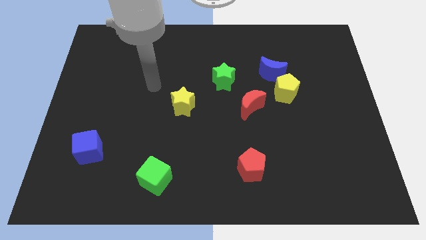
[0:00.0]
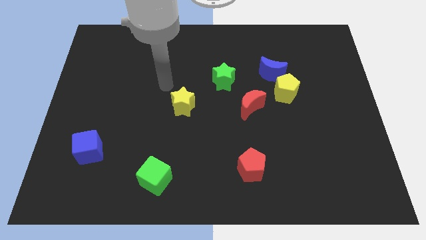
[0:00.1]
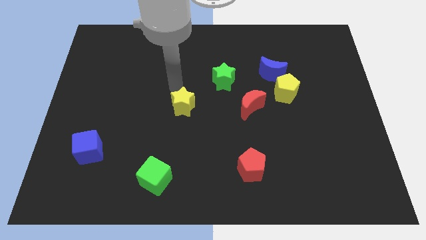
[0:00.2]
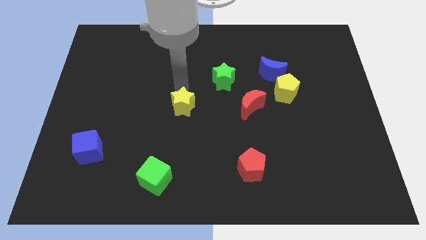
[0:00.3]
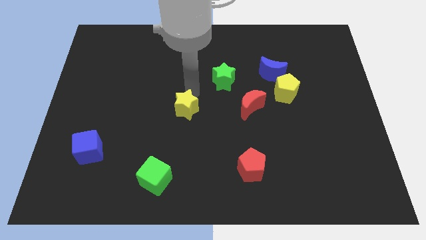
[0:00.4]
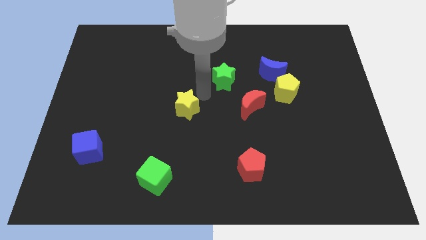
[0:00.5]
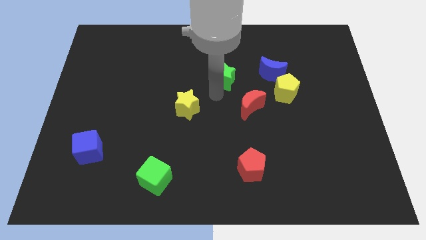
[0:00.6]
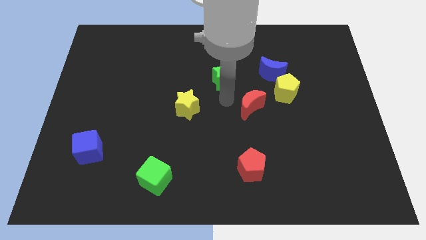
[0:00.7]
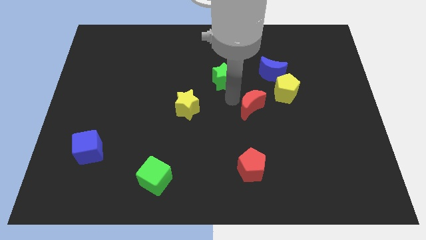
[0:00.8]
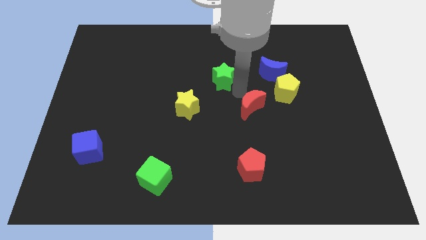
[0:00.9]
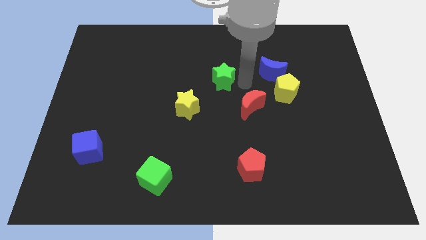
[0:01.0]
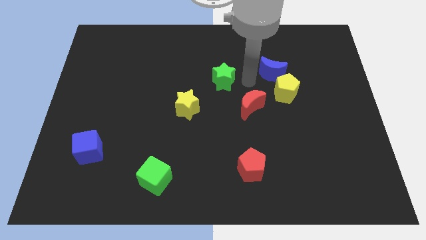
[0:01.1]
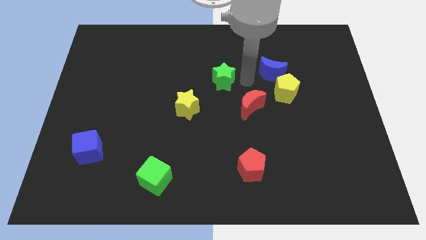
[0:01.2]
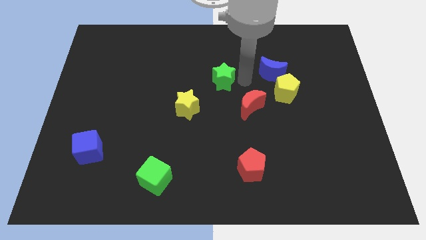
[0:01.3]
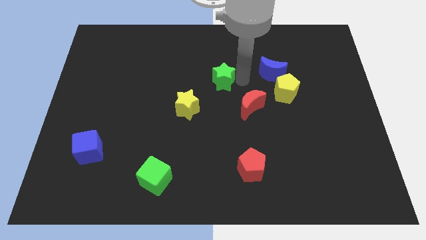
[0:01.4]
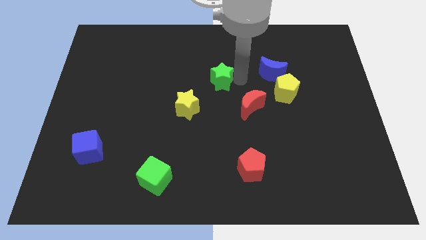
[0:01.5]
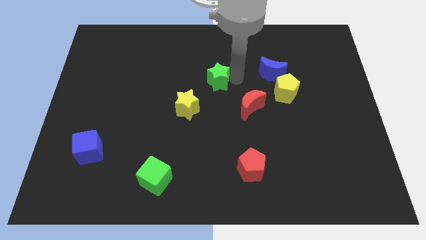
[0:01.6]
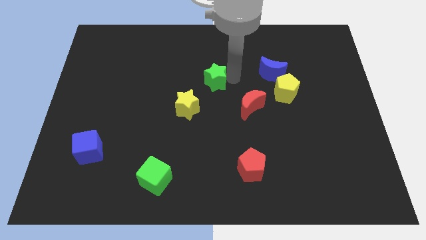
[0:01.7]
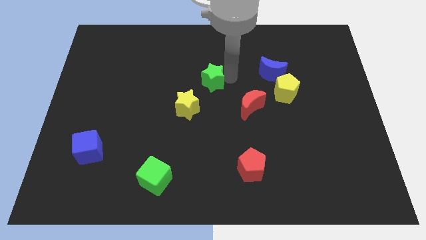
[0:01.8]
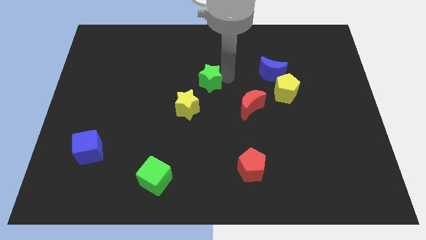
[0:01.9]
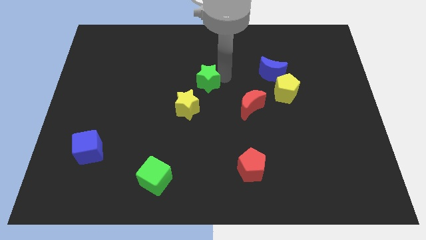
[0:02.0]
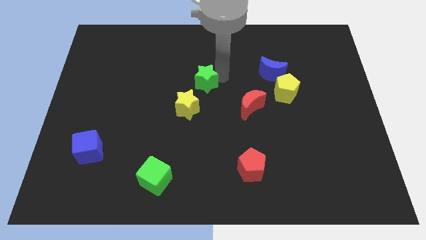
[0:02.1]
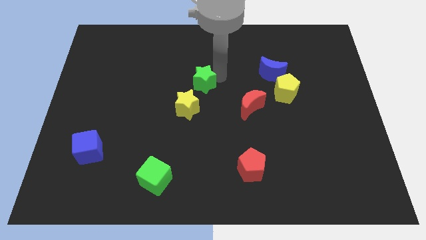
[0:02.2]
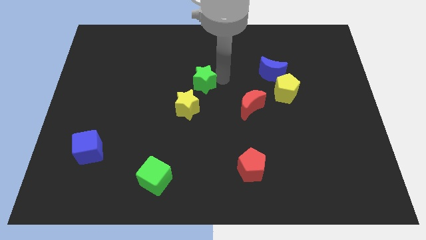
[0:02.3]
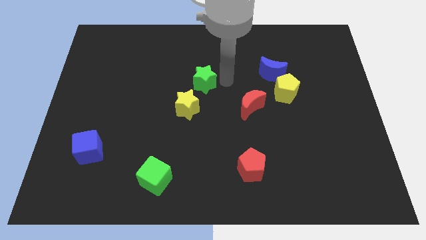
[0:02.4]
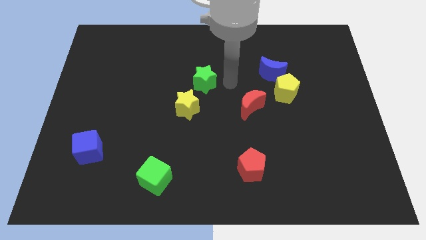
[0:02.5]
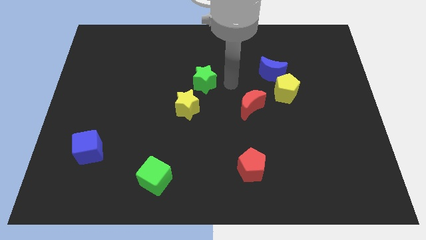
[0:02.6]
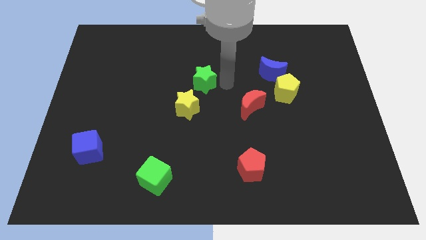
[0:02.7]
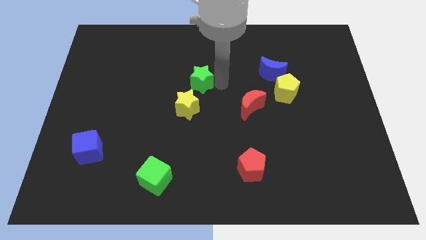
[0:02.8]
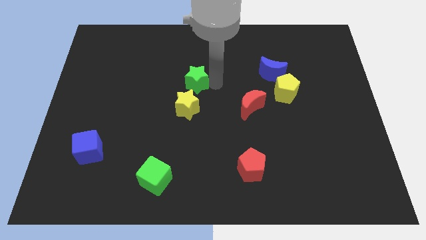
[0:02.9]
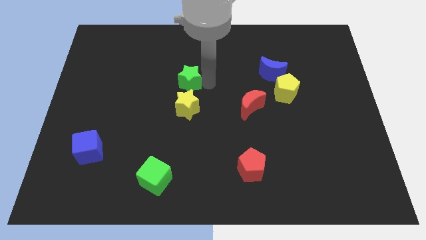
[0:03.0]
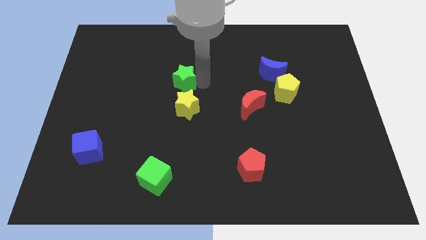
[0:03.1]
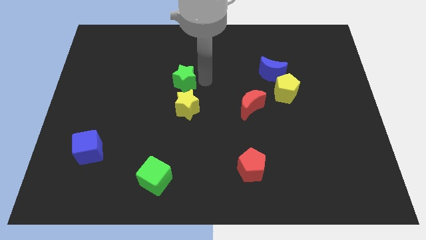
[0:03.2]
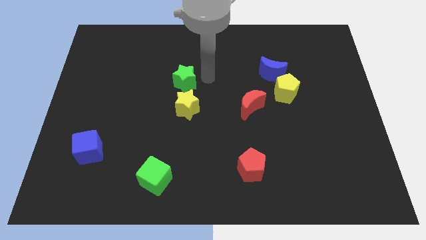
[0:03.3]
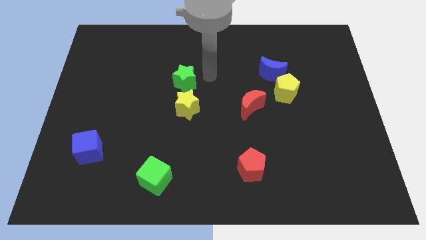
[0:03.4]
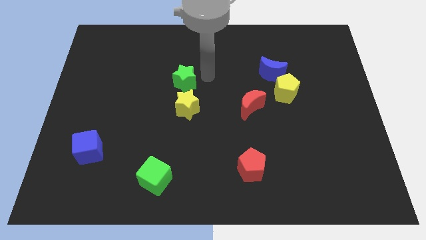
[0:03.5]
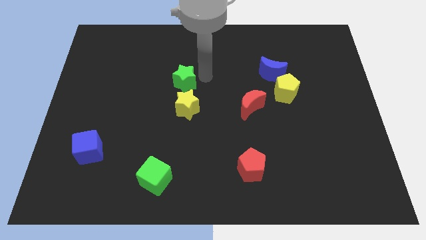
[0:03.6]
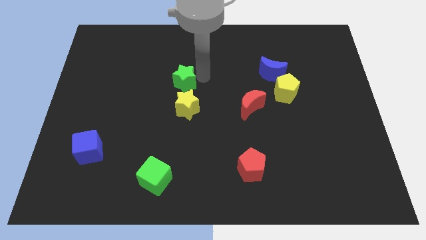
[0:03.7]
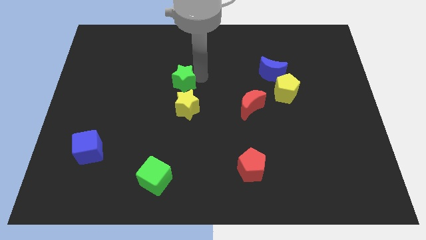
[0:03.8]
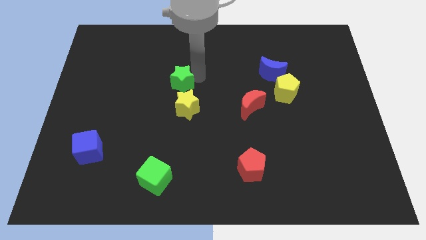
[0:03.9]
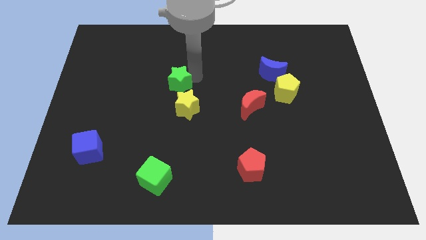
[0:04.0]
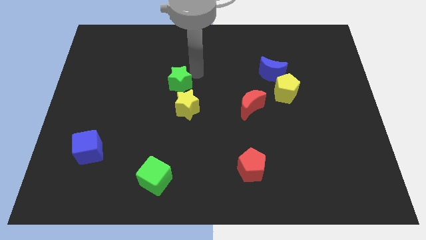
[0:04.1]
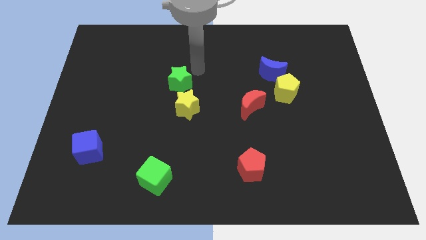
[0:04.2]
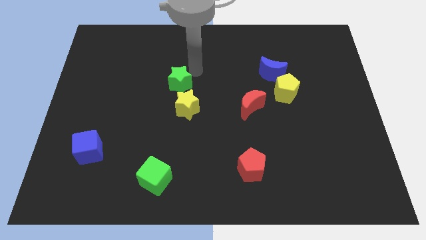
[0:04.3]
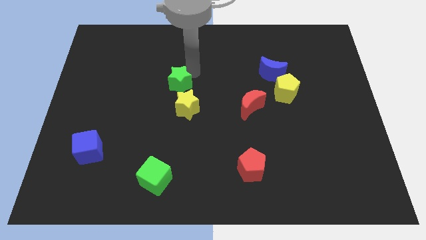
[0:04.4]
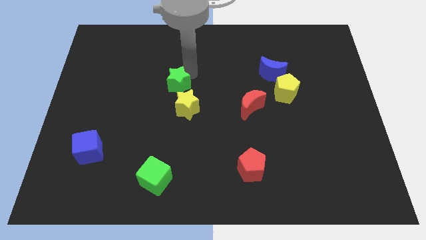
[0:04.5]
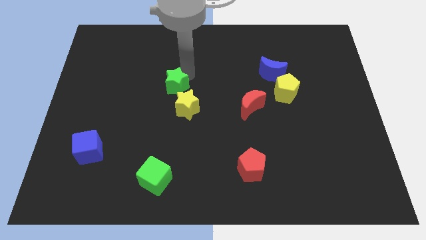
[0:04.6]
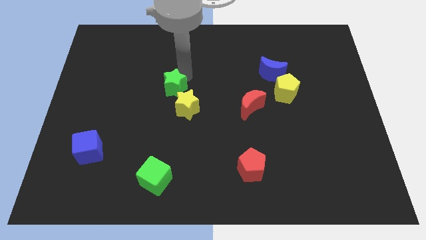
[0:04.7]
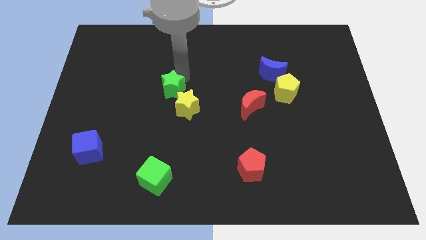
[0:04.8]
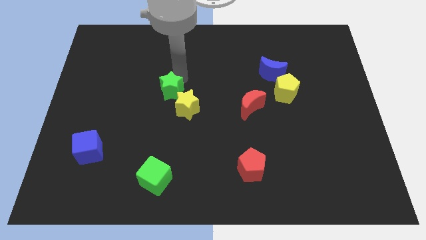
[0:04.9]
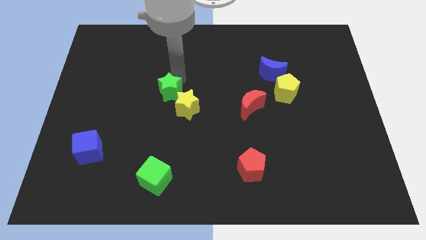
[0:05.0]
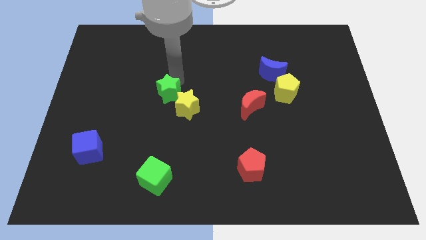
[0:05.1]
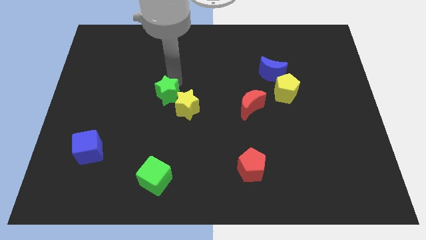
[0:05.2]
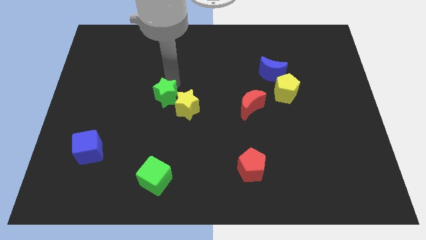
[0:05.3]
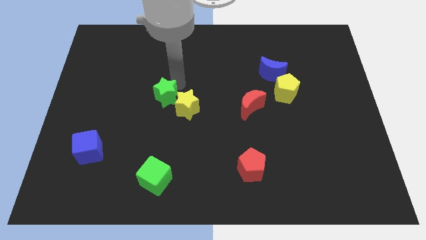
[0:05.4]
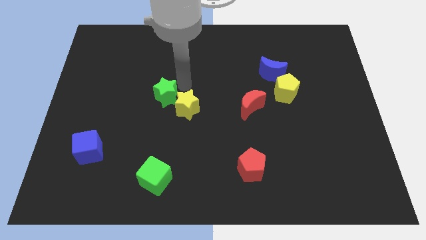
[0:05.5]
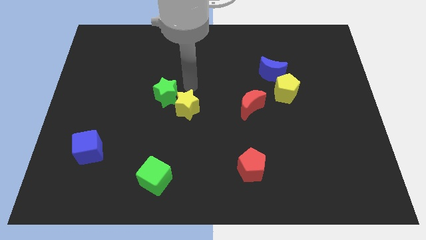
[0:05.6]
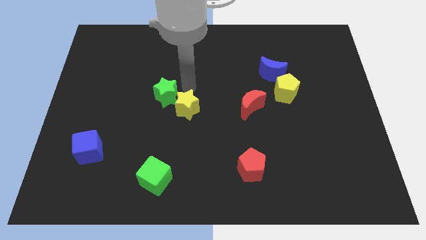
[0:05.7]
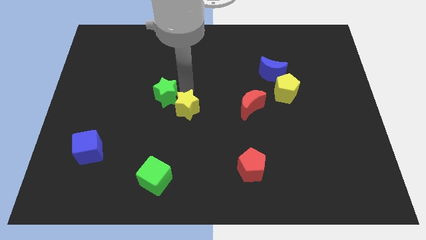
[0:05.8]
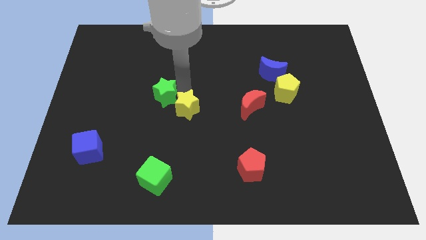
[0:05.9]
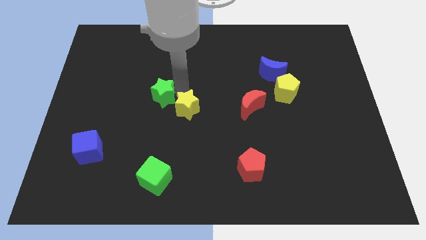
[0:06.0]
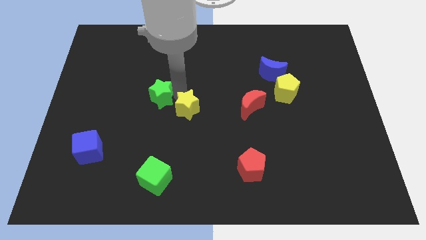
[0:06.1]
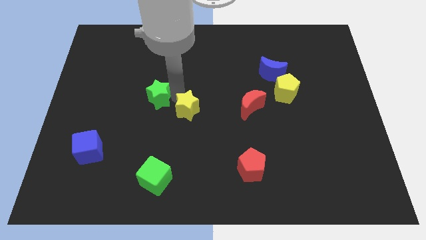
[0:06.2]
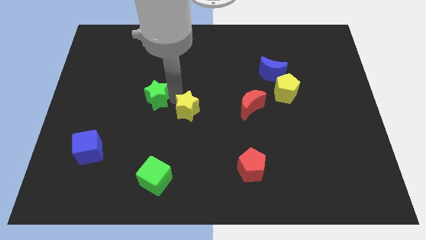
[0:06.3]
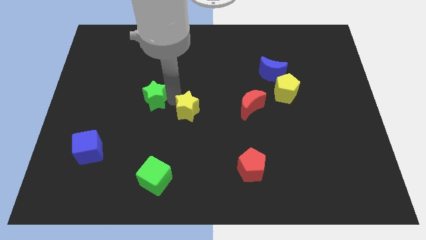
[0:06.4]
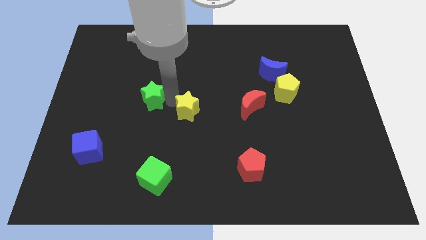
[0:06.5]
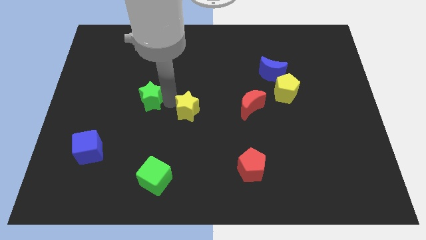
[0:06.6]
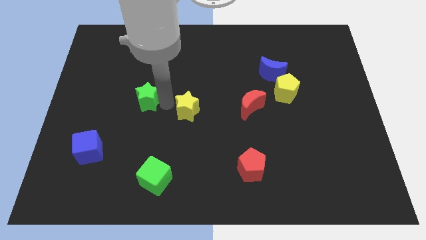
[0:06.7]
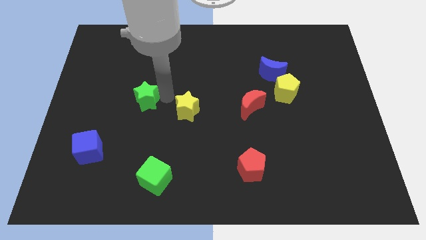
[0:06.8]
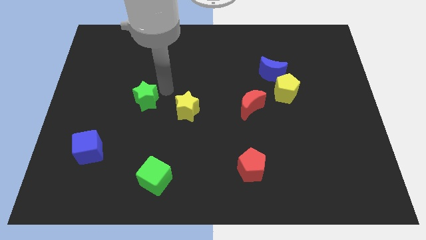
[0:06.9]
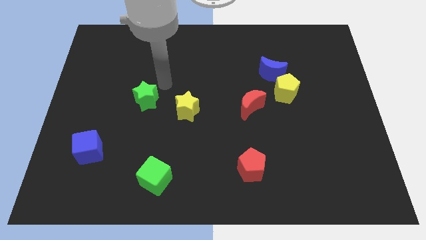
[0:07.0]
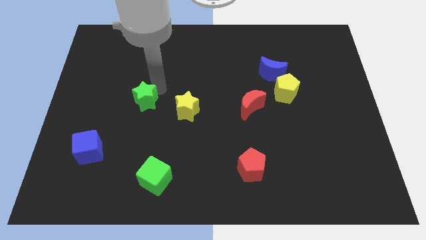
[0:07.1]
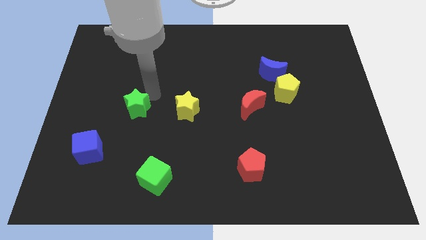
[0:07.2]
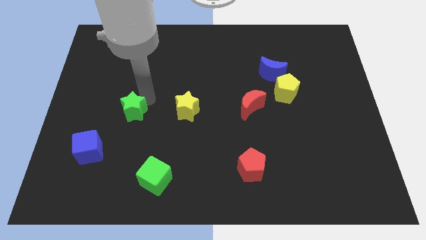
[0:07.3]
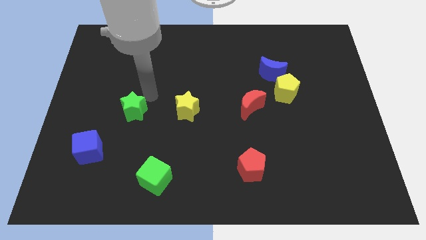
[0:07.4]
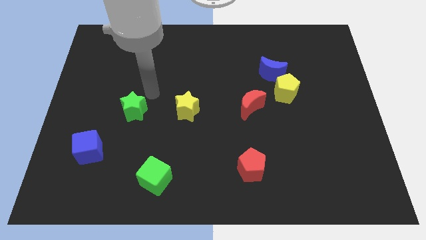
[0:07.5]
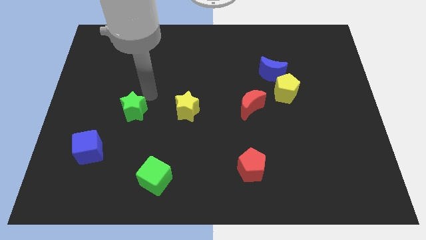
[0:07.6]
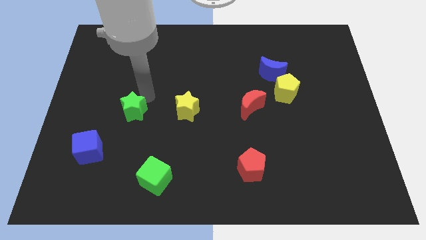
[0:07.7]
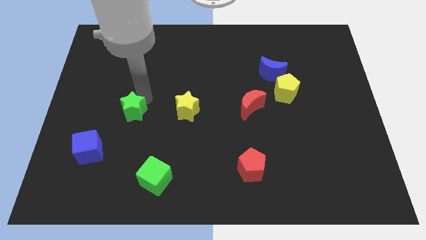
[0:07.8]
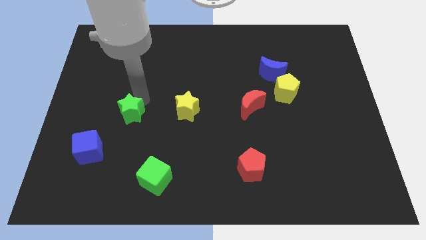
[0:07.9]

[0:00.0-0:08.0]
push the green star to the top right side of the blue cube
